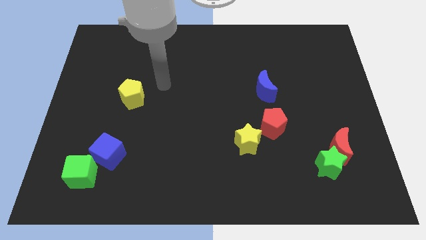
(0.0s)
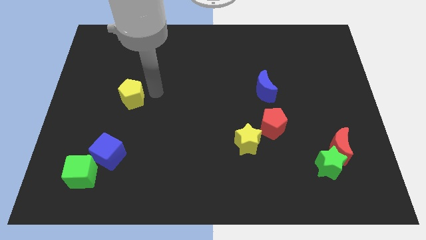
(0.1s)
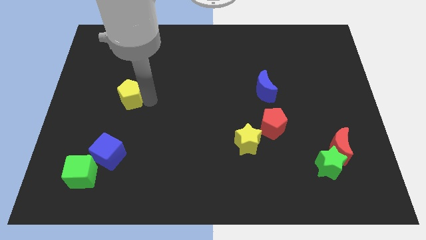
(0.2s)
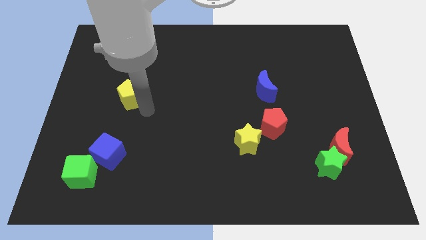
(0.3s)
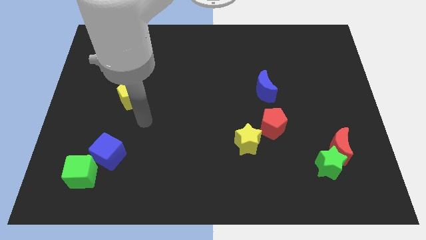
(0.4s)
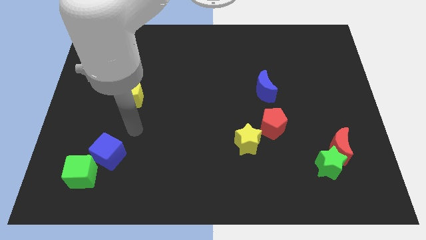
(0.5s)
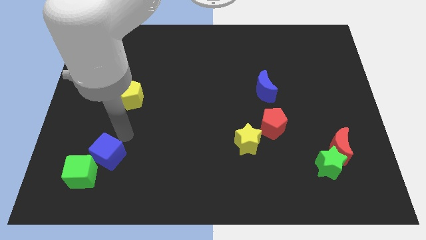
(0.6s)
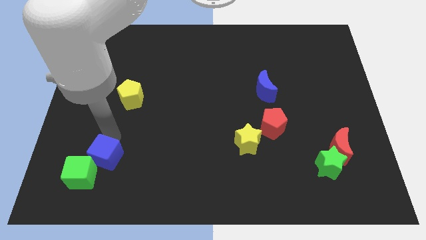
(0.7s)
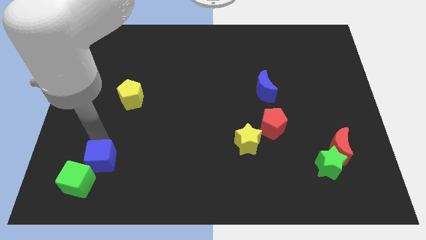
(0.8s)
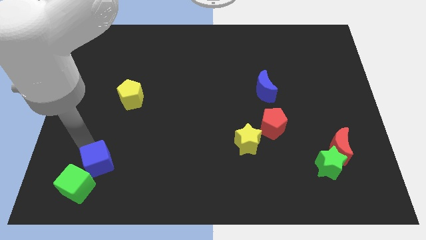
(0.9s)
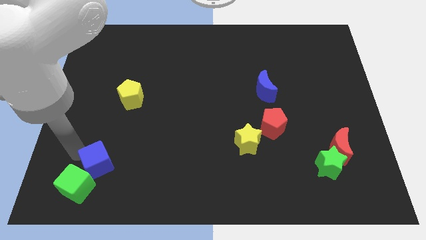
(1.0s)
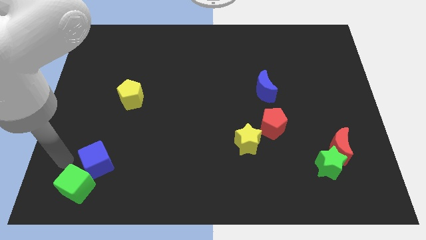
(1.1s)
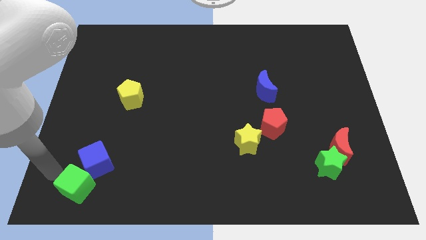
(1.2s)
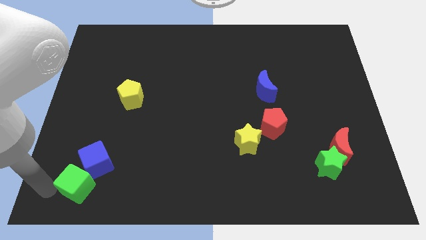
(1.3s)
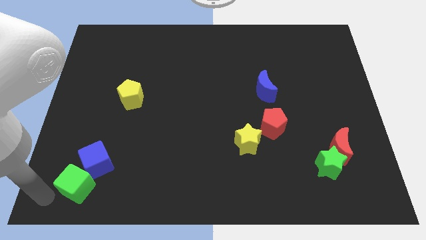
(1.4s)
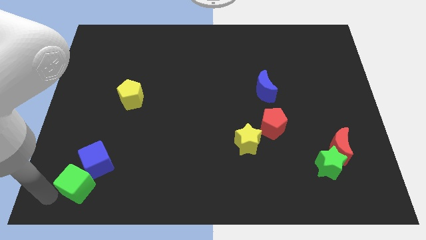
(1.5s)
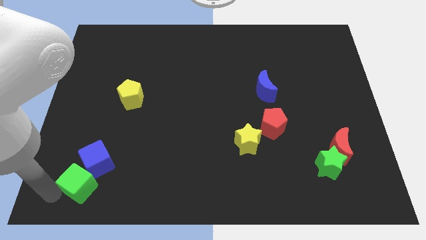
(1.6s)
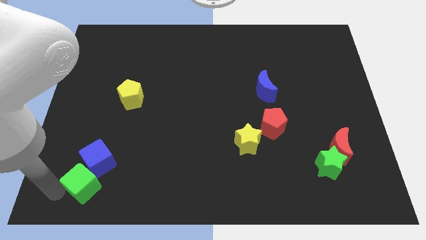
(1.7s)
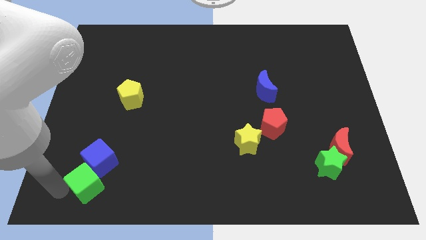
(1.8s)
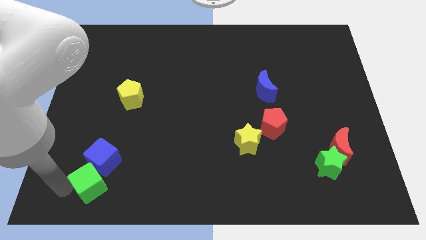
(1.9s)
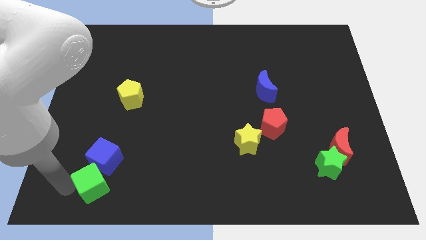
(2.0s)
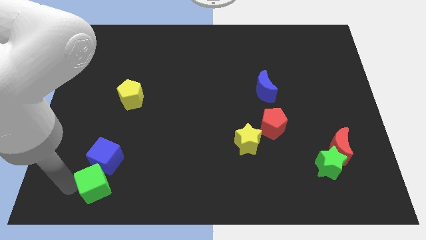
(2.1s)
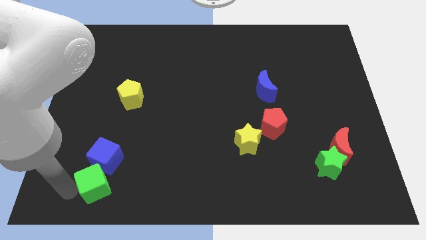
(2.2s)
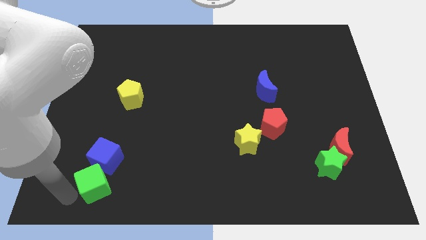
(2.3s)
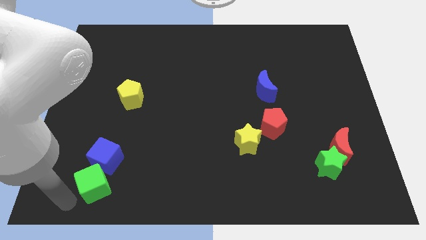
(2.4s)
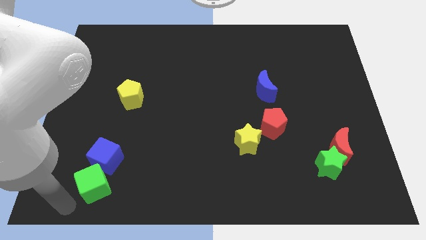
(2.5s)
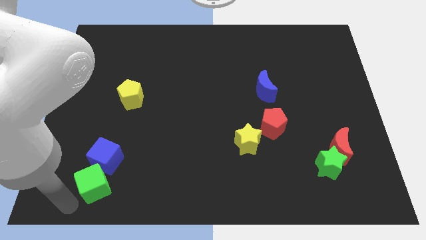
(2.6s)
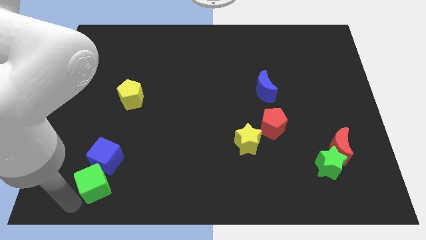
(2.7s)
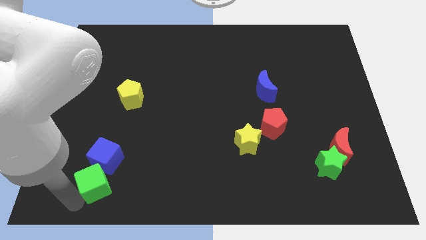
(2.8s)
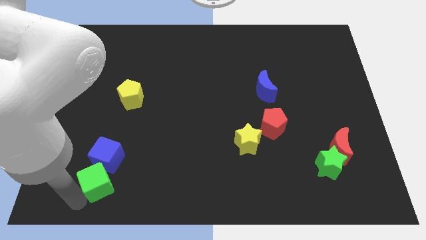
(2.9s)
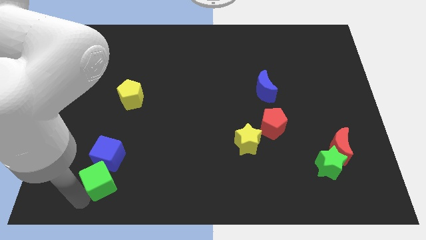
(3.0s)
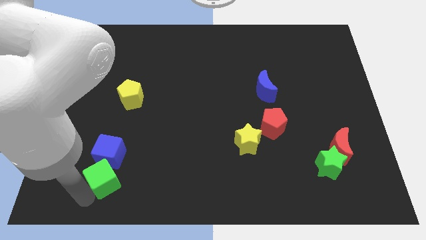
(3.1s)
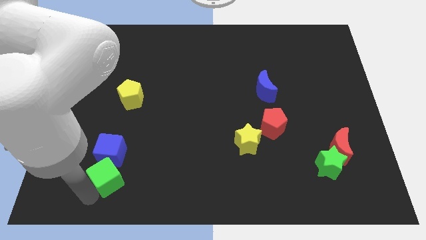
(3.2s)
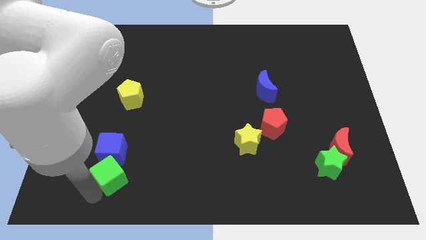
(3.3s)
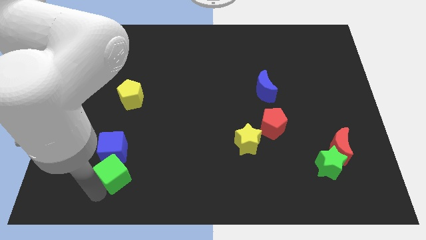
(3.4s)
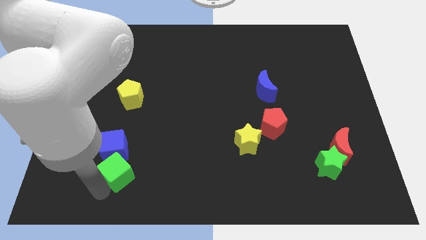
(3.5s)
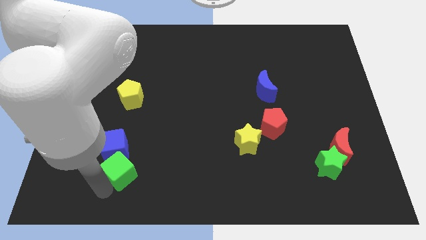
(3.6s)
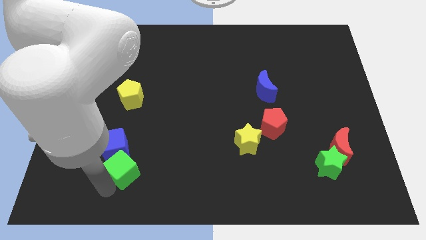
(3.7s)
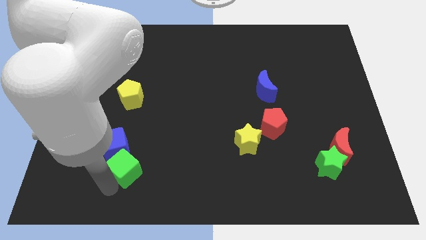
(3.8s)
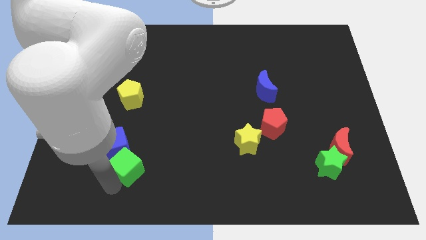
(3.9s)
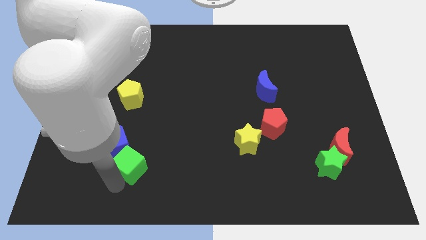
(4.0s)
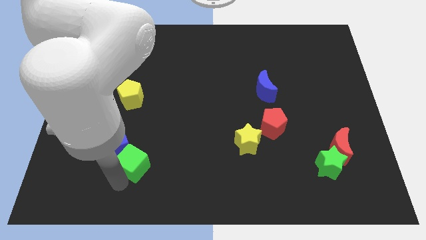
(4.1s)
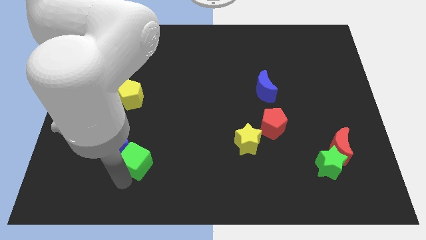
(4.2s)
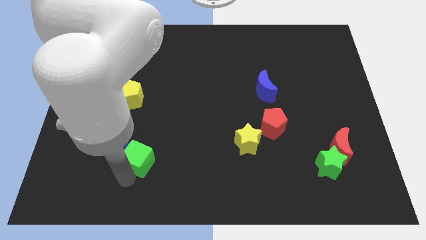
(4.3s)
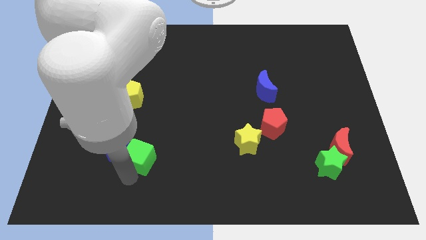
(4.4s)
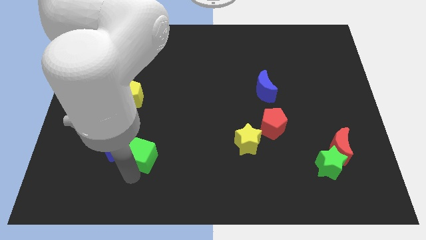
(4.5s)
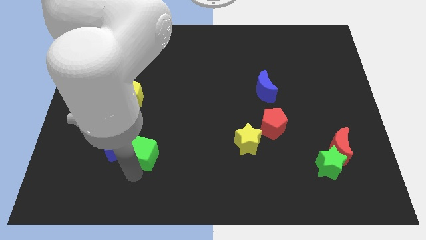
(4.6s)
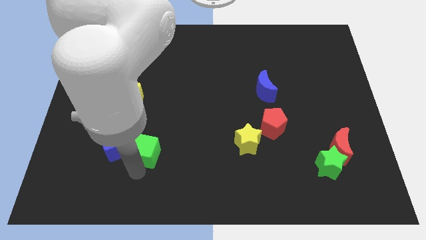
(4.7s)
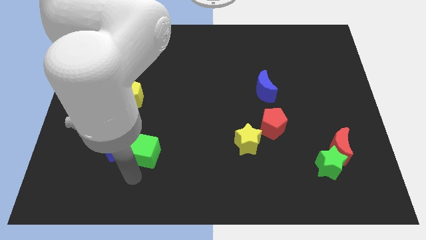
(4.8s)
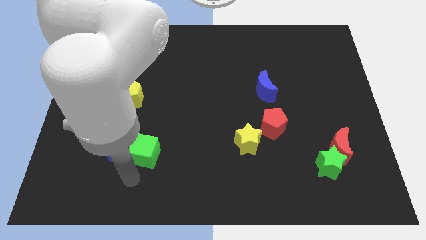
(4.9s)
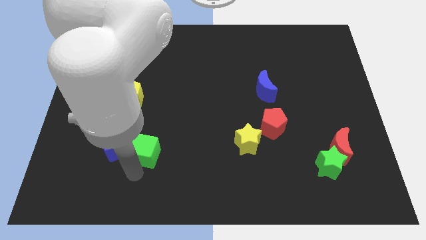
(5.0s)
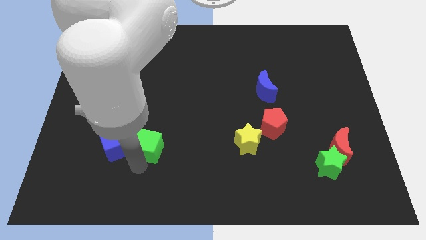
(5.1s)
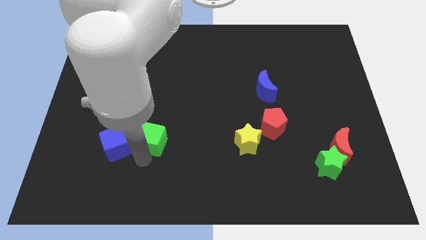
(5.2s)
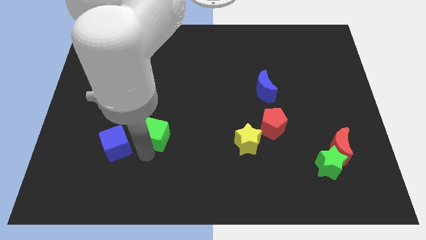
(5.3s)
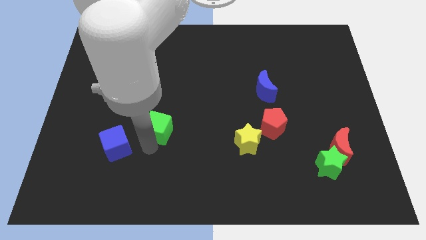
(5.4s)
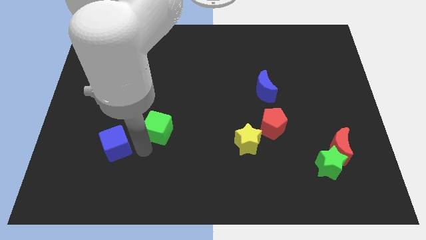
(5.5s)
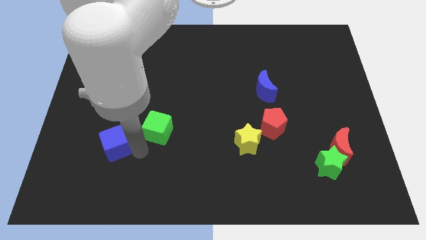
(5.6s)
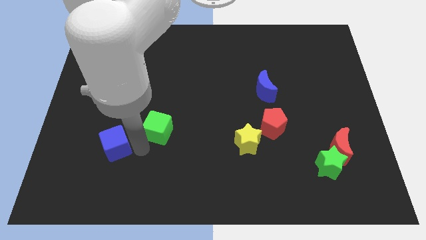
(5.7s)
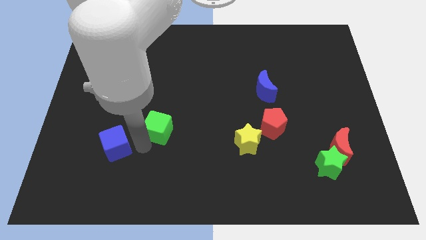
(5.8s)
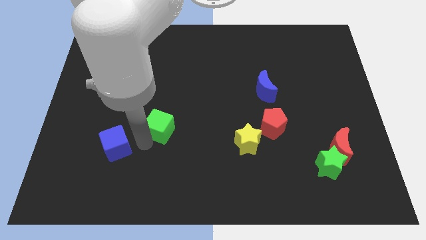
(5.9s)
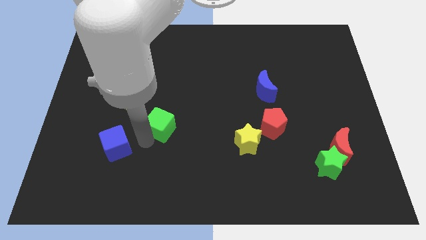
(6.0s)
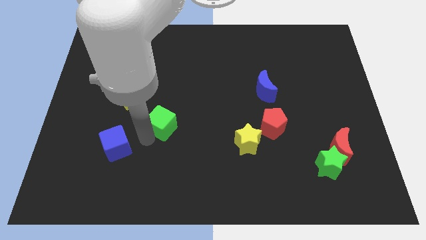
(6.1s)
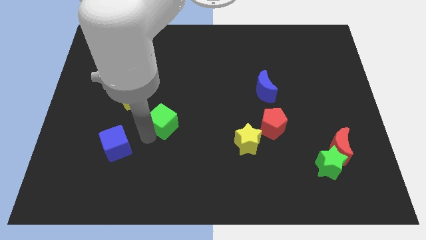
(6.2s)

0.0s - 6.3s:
move the green cube up and to the right

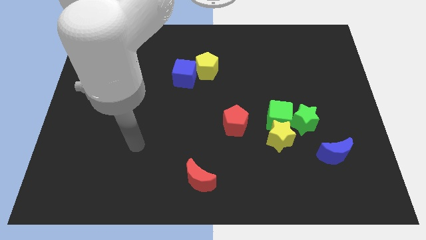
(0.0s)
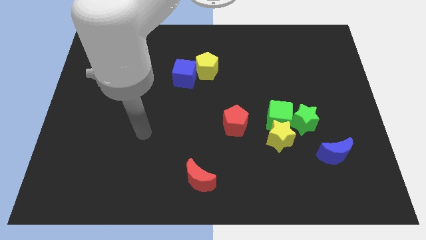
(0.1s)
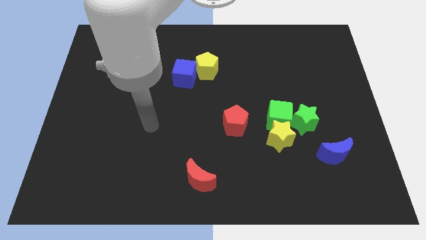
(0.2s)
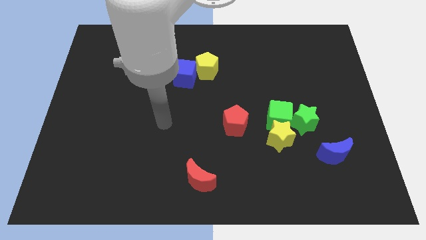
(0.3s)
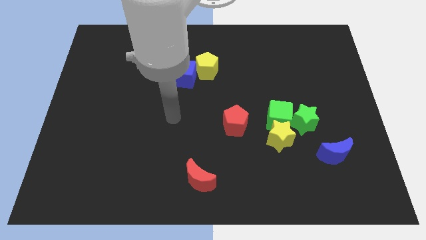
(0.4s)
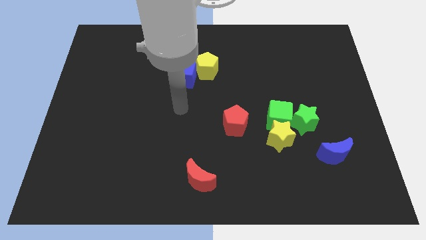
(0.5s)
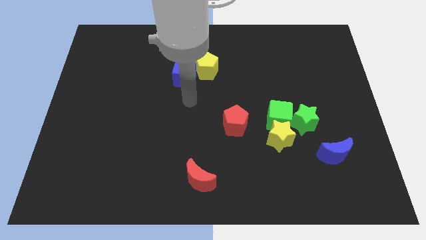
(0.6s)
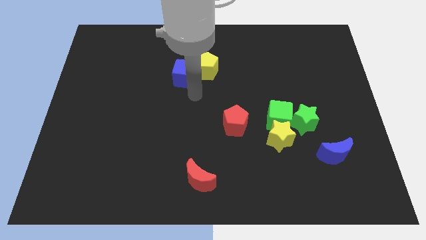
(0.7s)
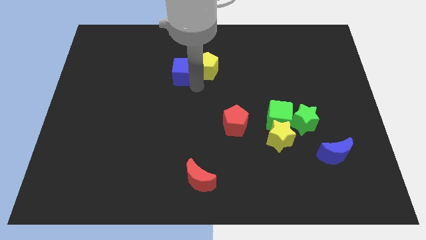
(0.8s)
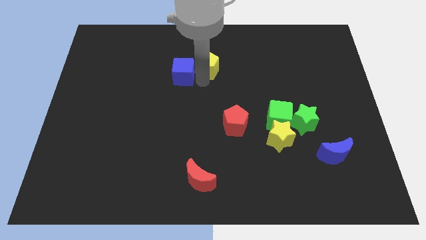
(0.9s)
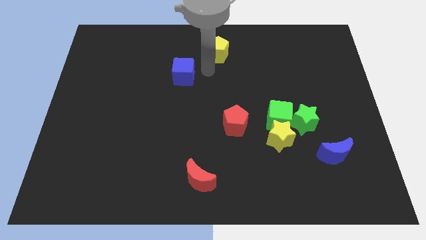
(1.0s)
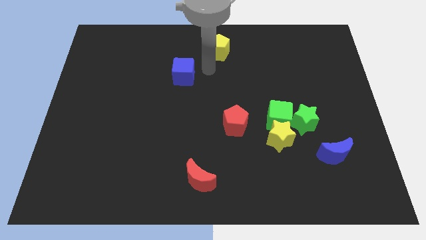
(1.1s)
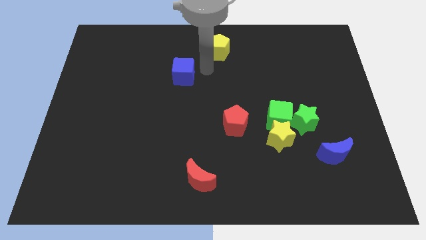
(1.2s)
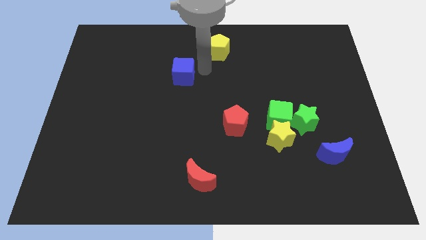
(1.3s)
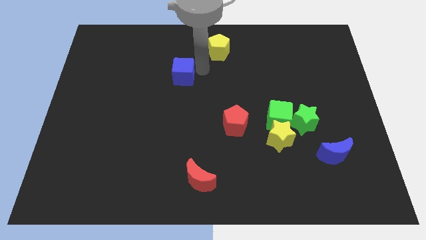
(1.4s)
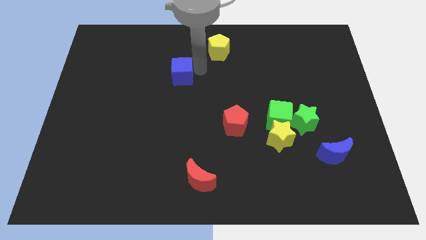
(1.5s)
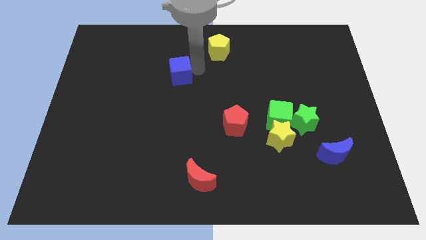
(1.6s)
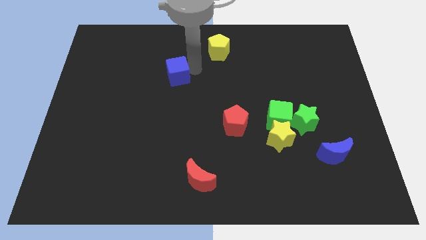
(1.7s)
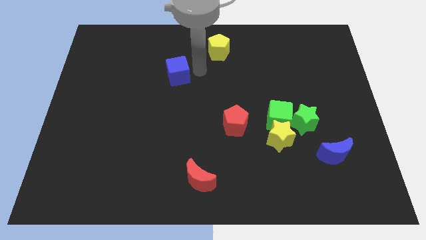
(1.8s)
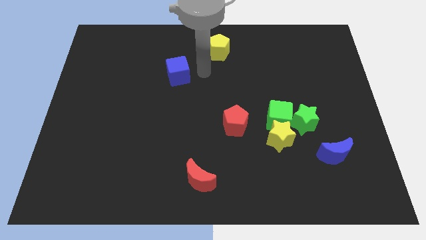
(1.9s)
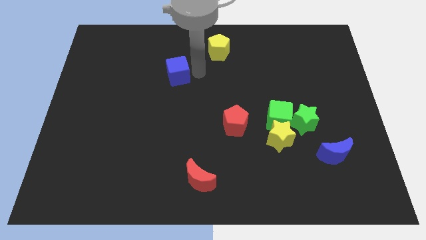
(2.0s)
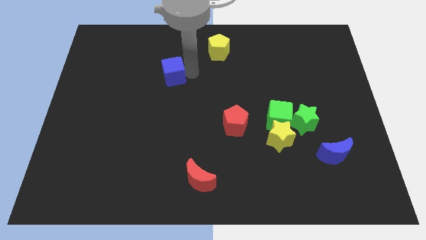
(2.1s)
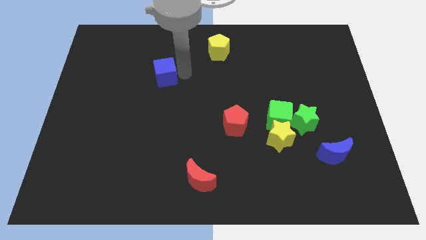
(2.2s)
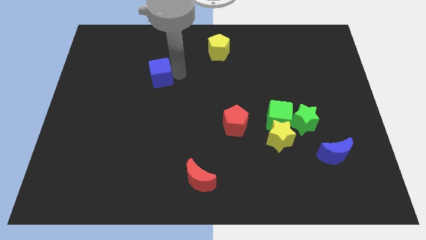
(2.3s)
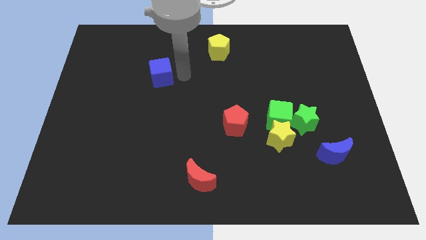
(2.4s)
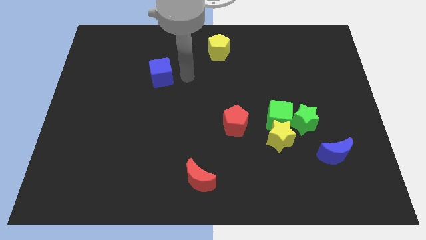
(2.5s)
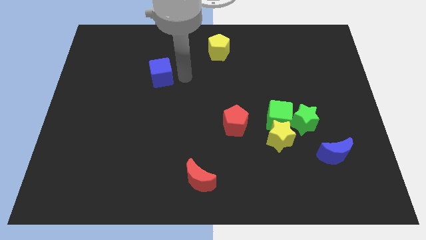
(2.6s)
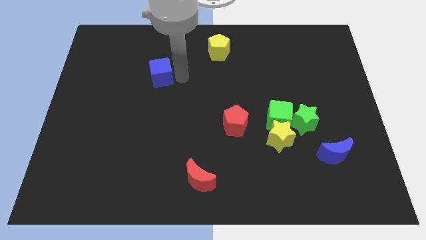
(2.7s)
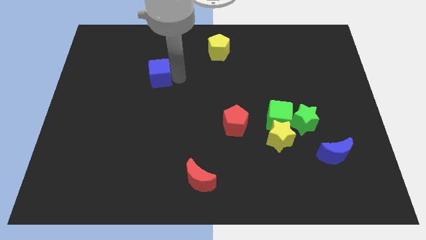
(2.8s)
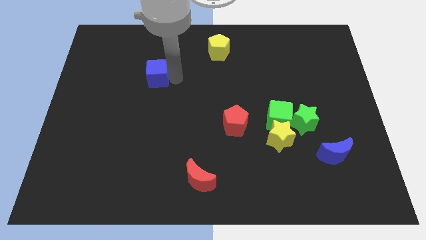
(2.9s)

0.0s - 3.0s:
push the blue cube left a little
